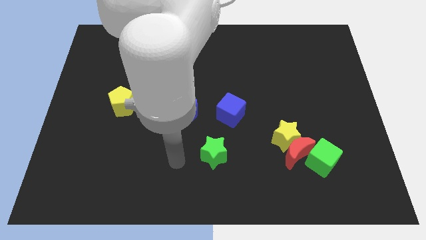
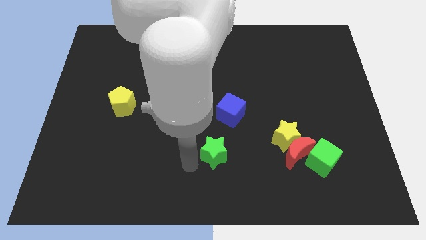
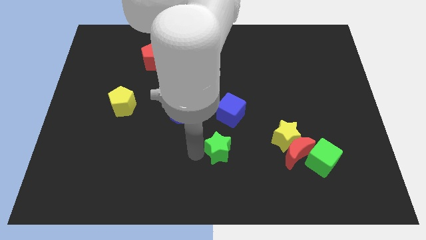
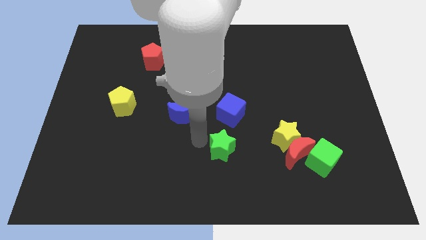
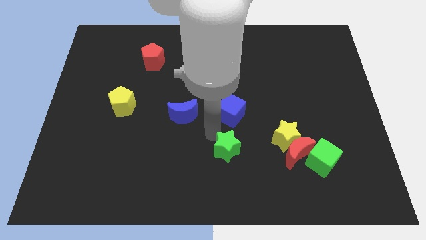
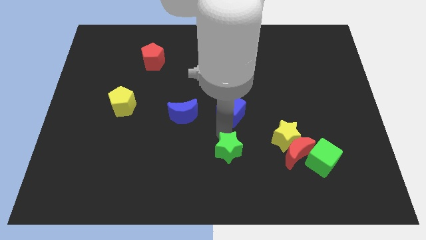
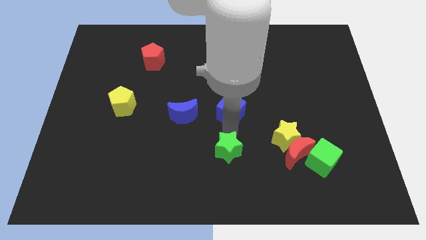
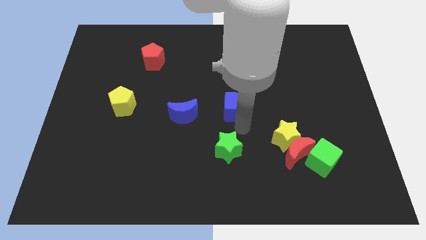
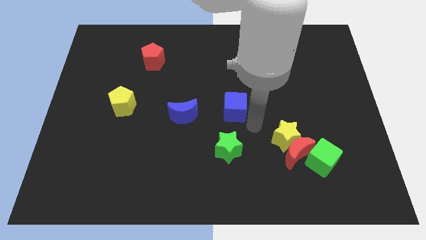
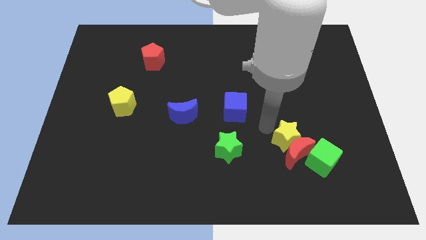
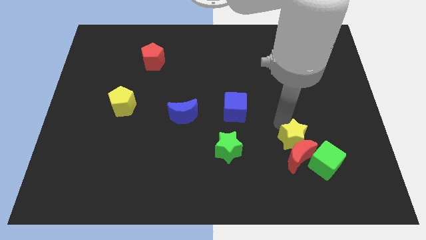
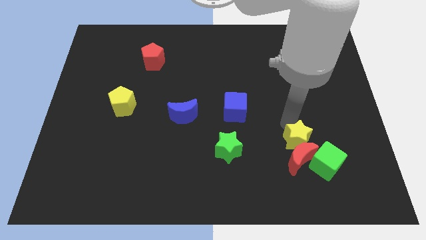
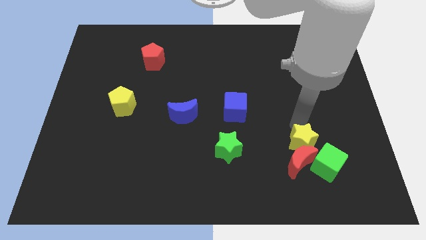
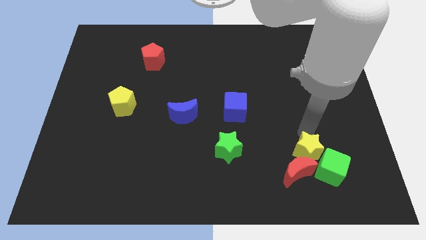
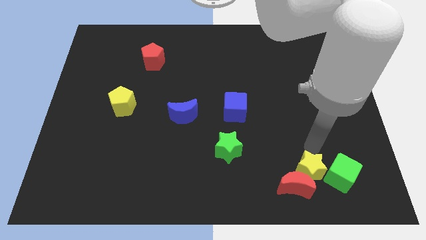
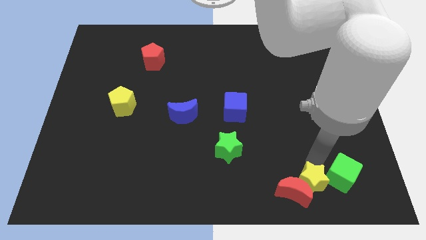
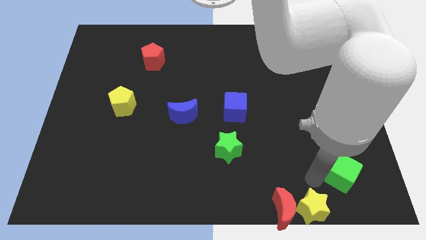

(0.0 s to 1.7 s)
separate the red moon from the yellow star and green cube

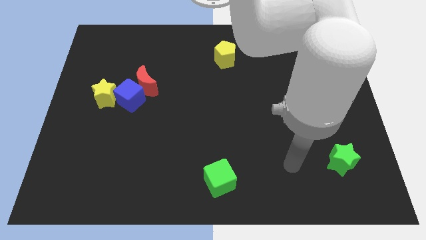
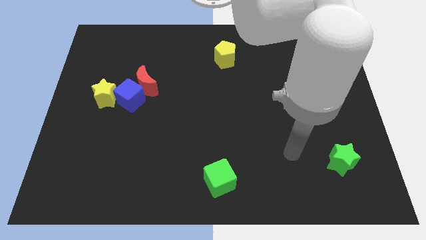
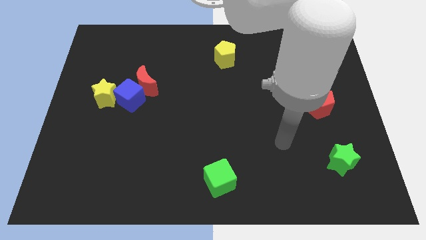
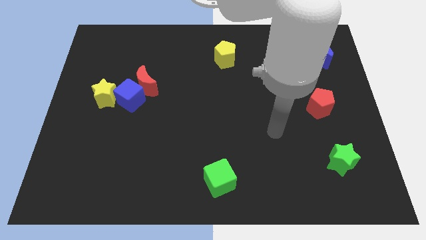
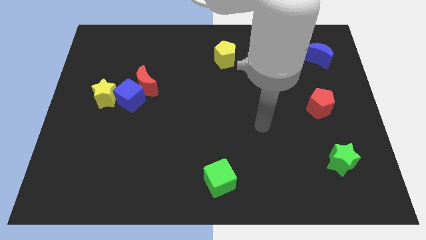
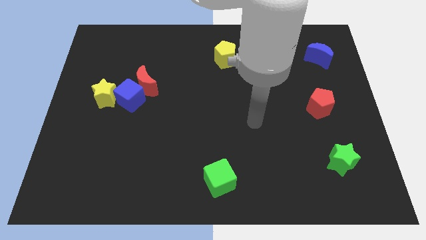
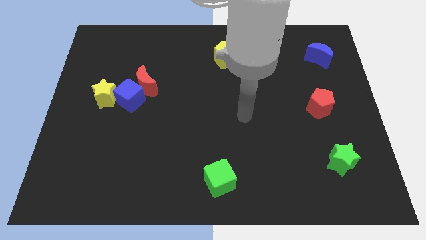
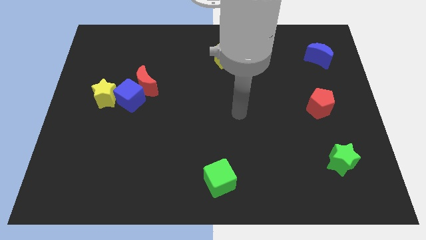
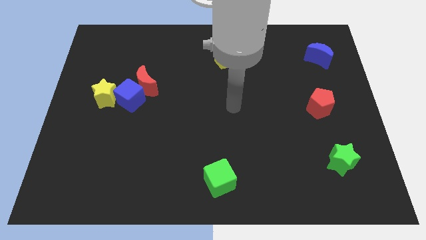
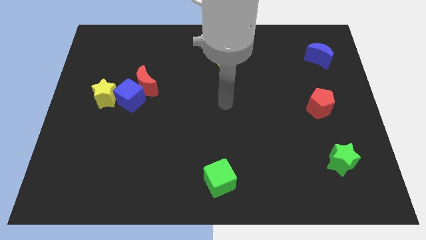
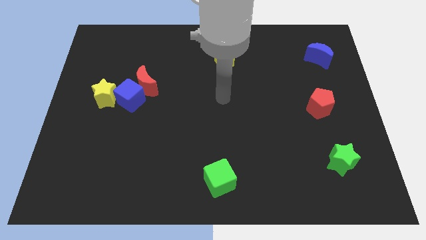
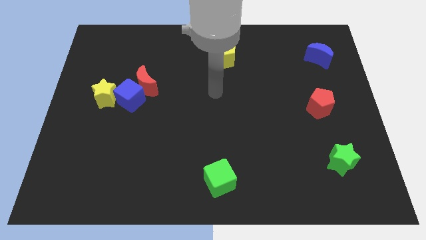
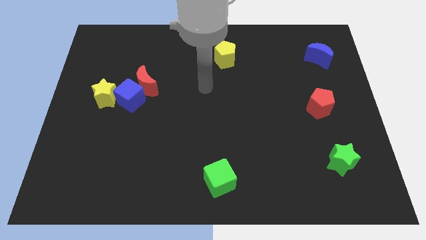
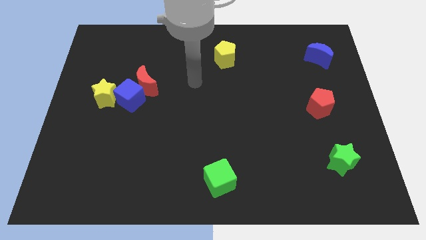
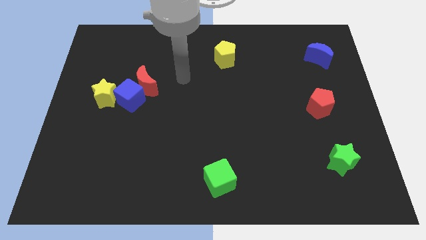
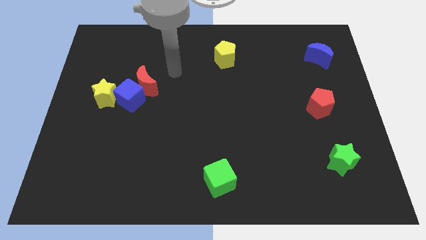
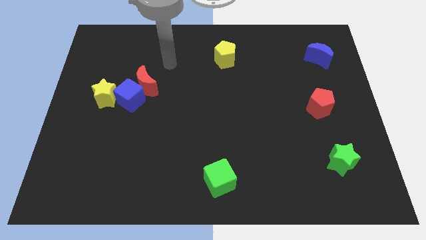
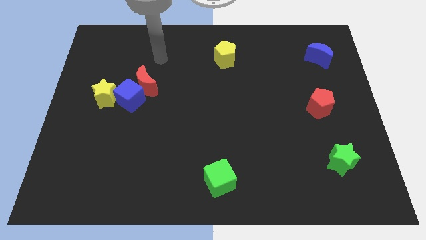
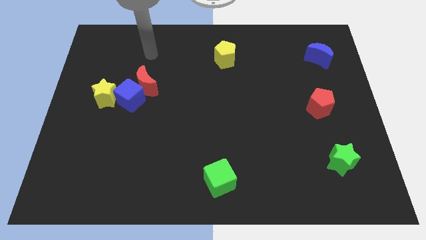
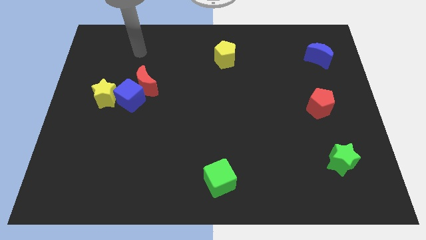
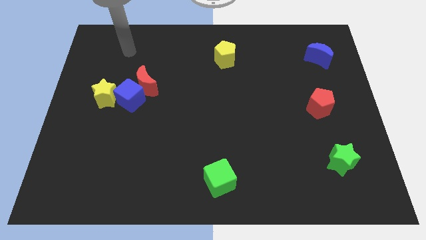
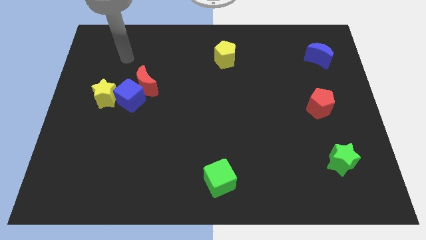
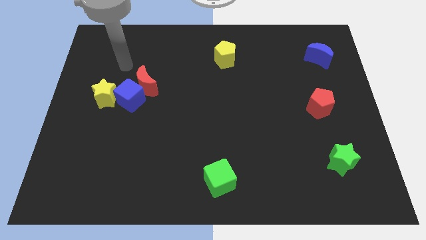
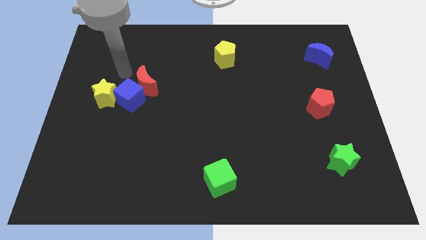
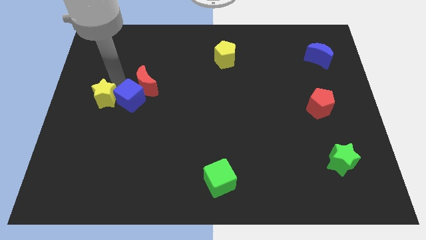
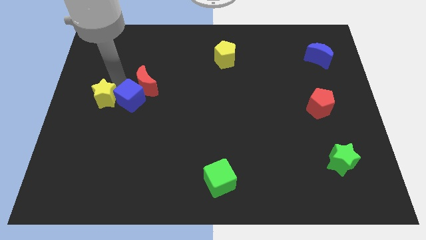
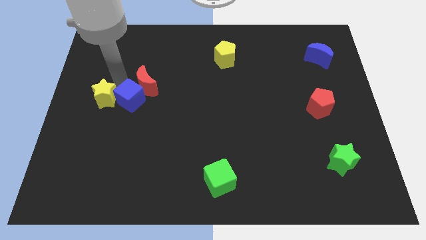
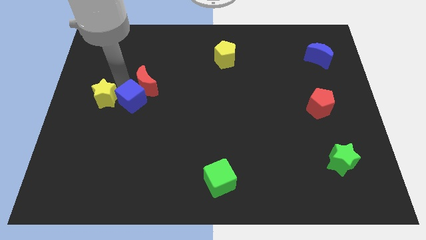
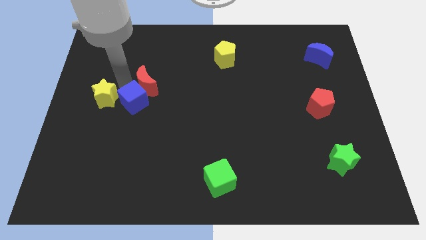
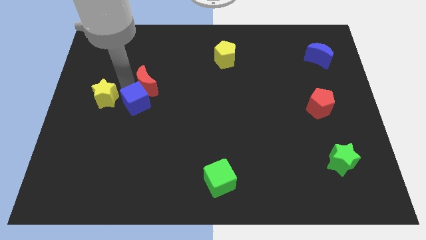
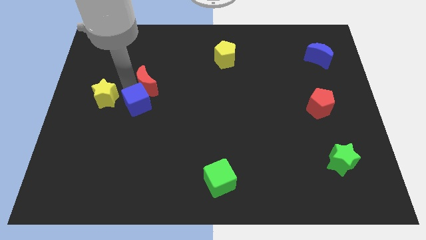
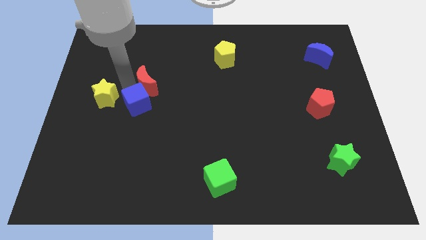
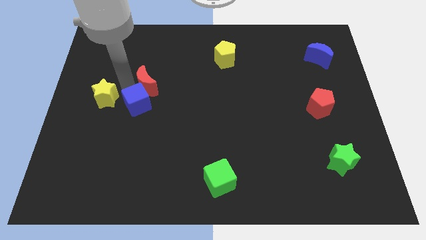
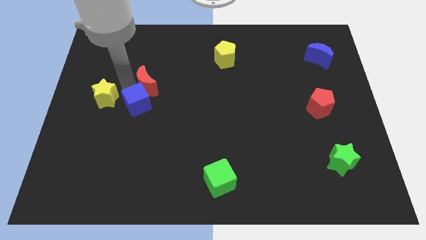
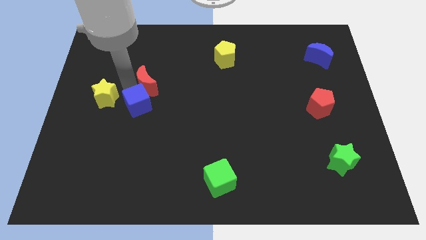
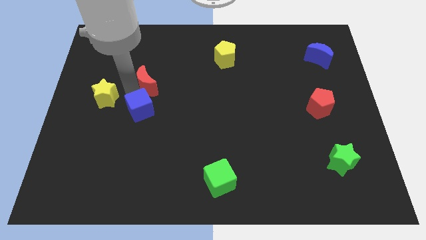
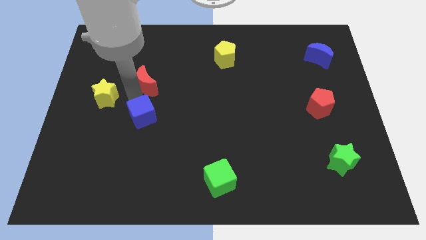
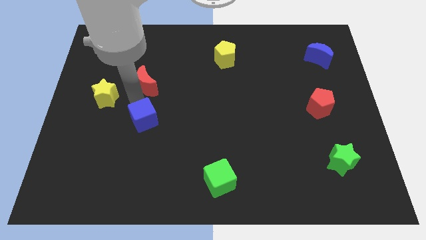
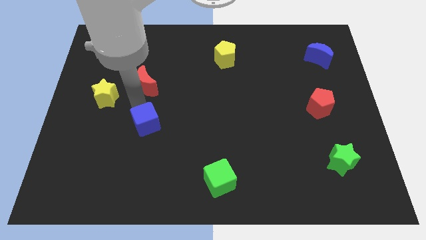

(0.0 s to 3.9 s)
move the blue cube away from the red moon and yellow star

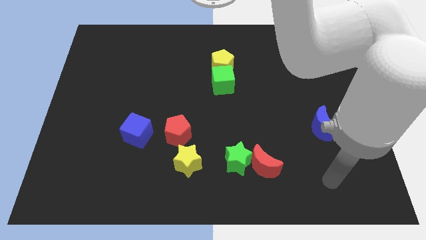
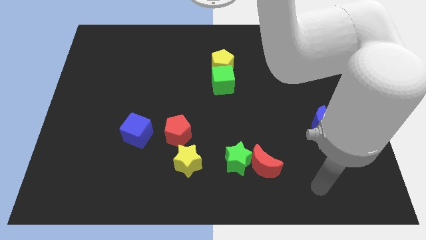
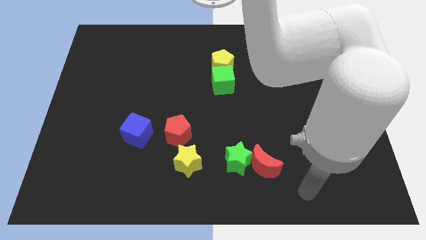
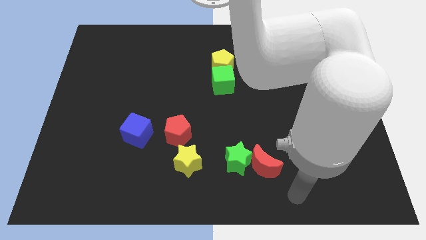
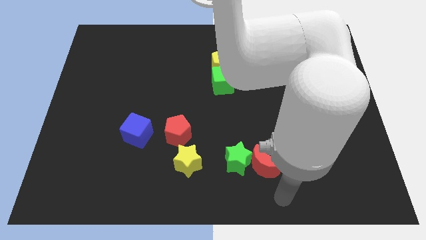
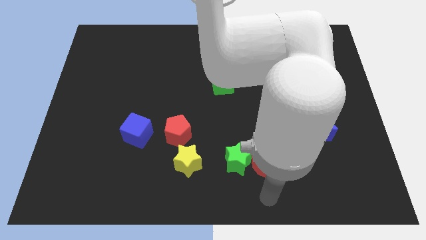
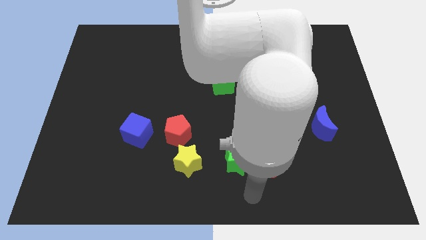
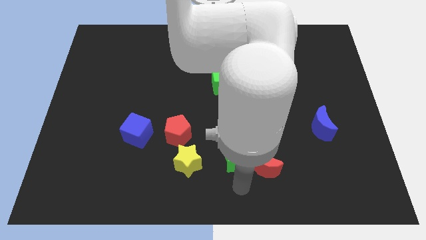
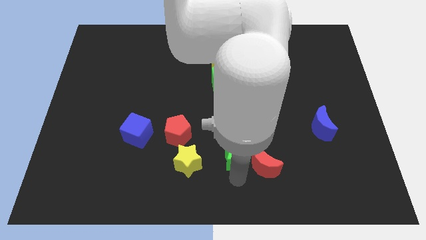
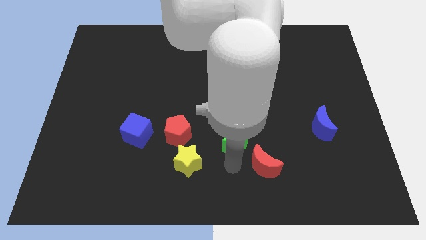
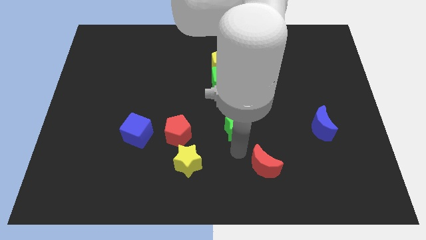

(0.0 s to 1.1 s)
separate the red moon from the green star

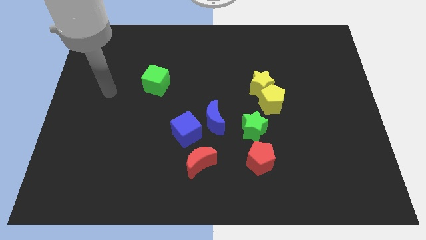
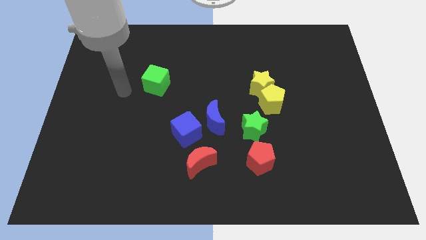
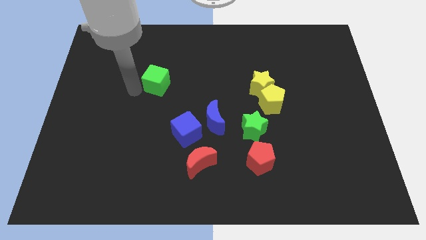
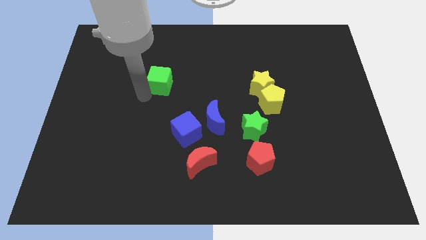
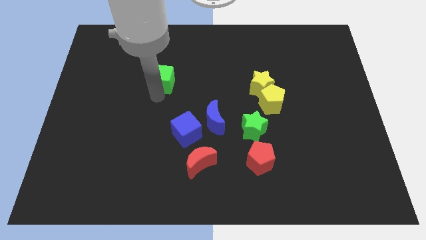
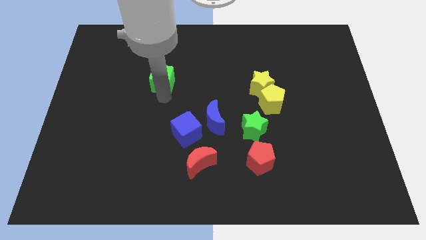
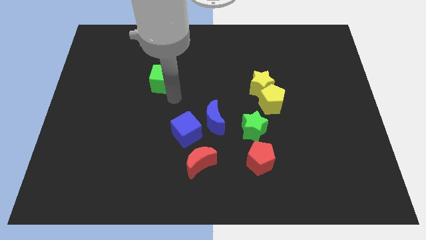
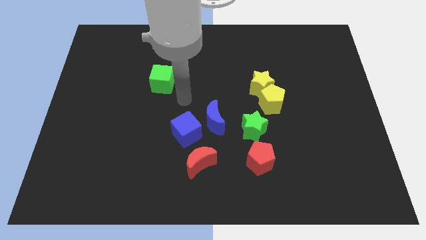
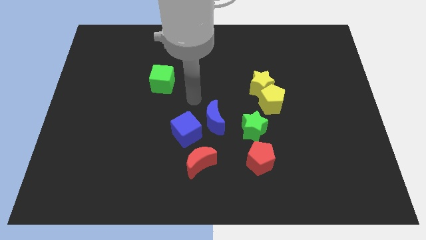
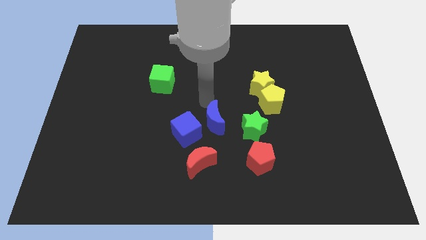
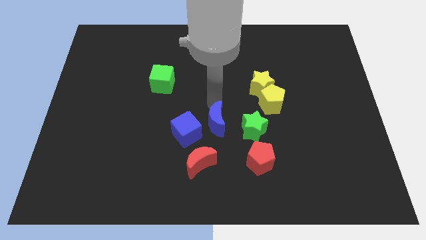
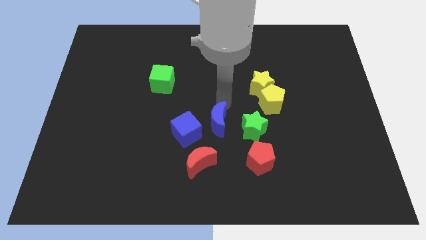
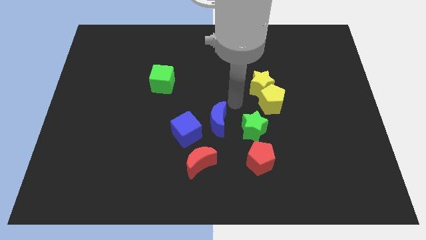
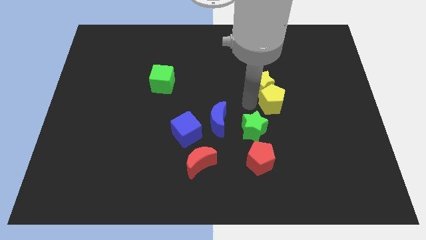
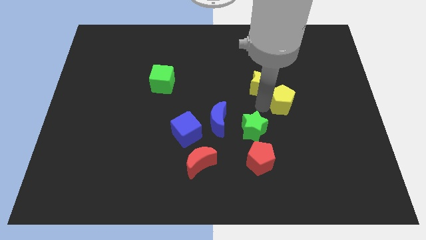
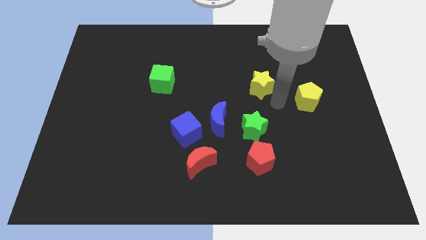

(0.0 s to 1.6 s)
move the yellow star away from the yellow pentagon

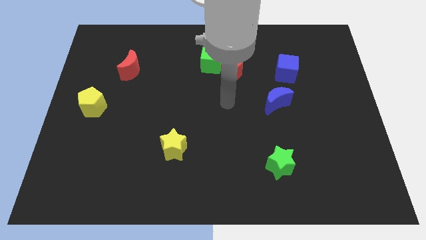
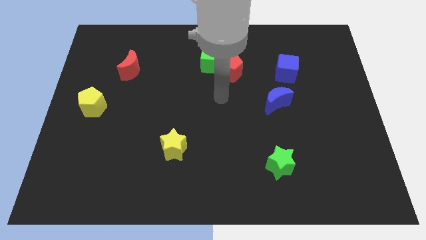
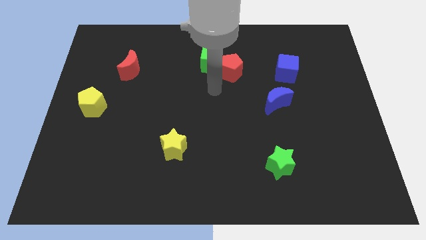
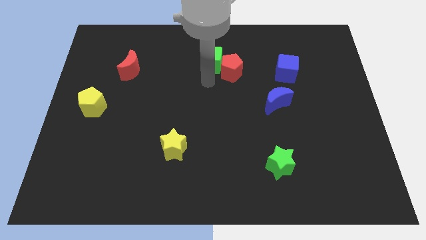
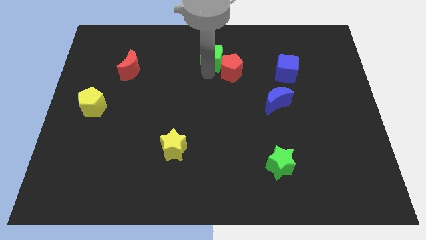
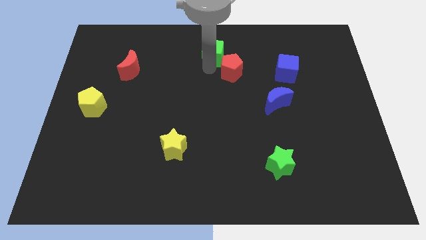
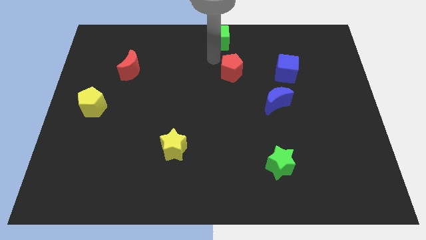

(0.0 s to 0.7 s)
separate the red pentagon from the green cube

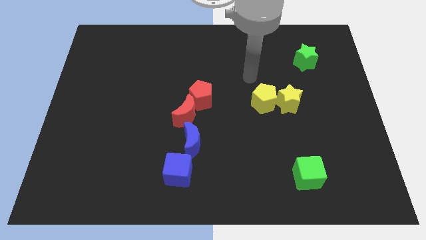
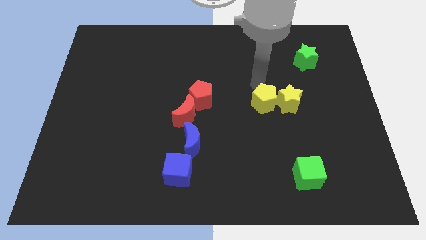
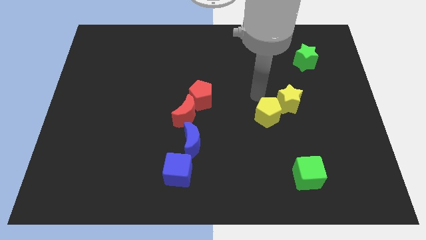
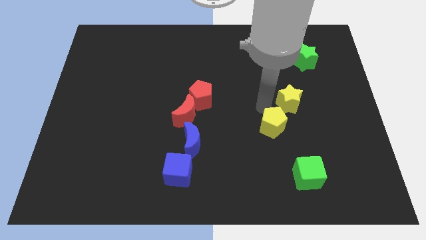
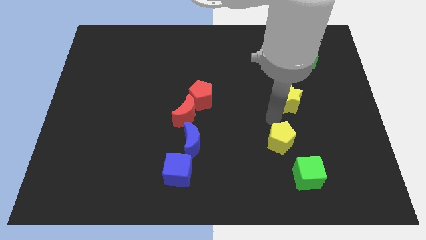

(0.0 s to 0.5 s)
pull the yellow star apart from the yellow pentagon
